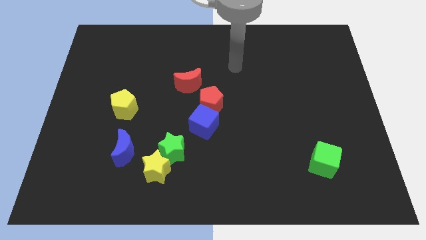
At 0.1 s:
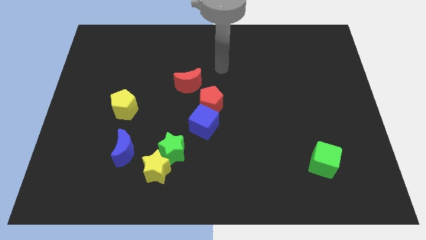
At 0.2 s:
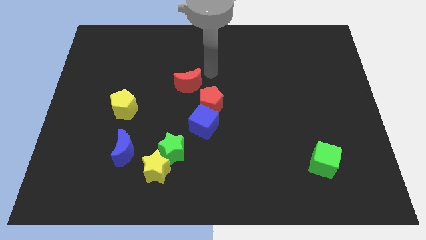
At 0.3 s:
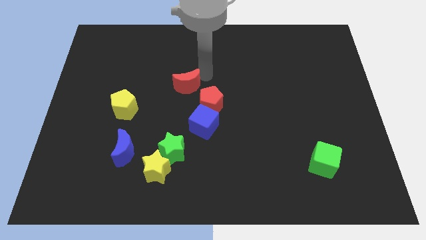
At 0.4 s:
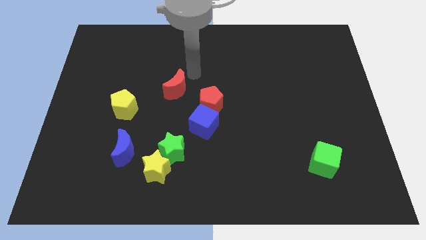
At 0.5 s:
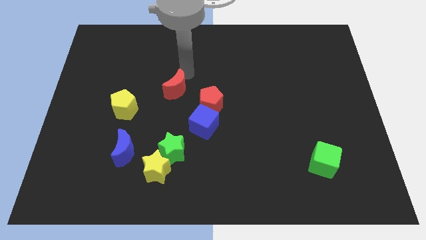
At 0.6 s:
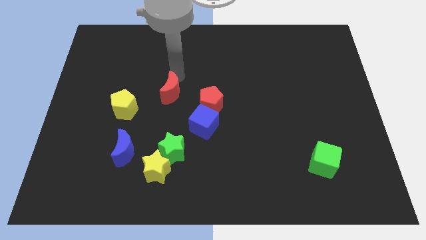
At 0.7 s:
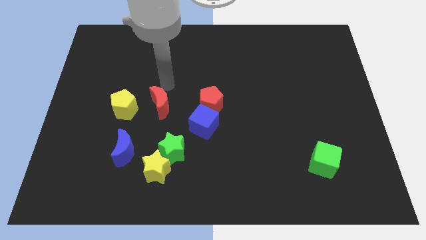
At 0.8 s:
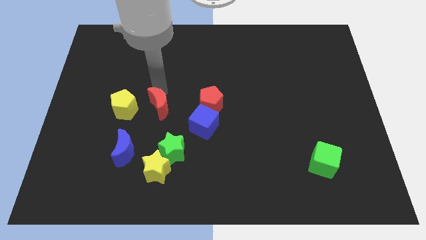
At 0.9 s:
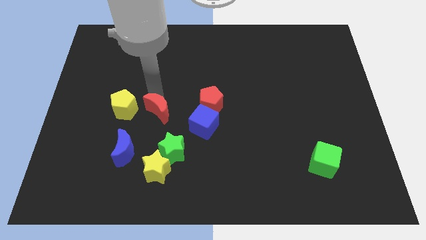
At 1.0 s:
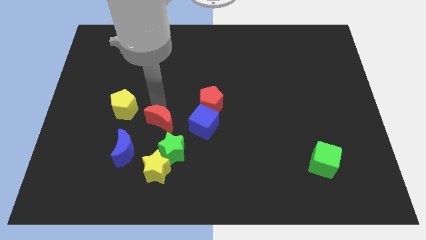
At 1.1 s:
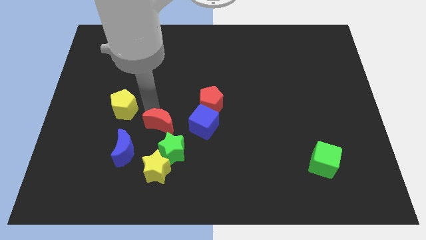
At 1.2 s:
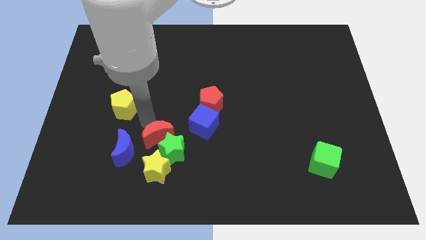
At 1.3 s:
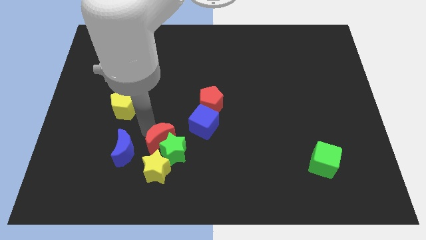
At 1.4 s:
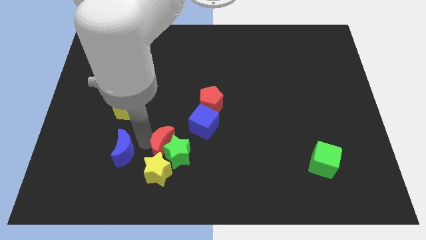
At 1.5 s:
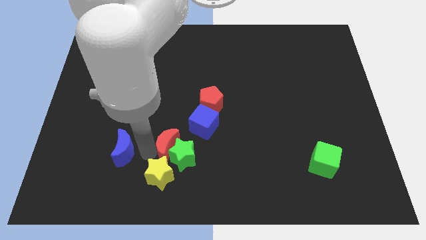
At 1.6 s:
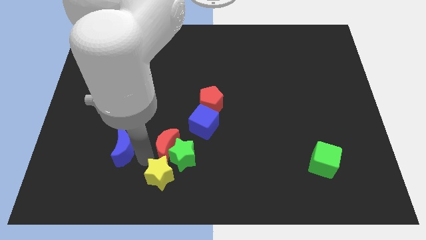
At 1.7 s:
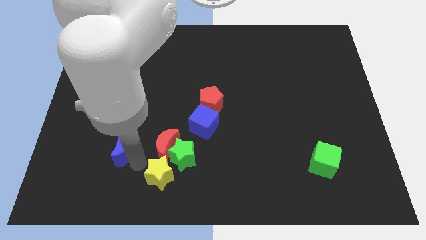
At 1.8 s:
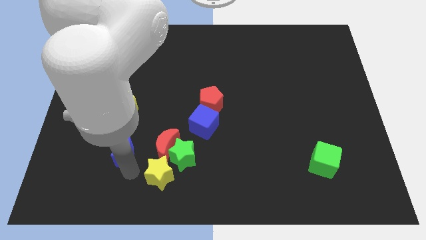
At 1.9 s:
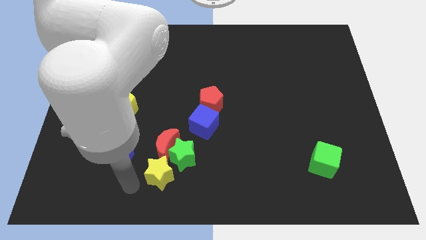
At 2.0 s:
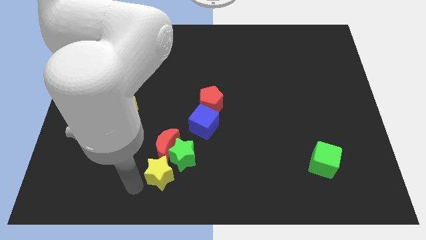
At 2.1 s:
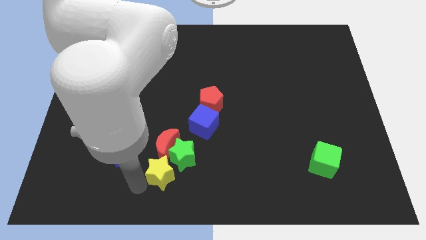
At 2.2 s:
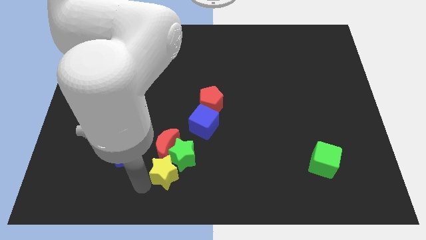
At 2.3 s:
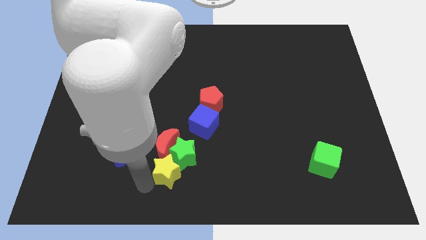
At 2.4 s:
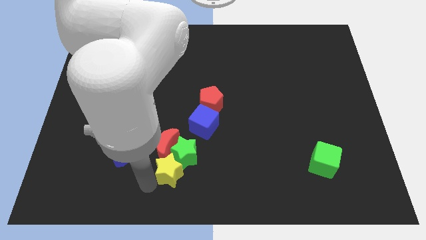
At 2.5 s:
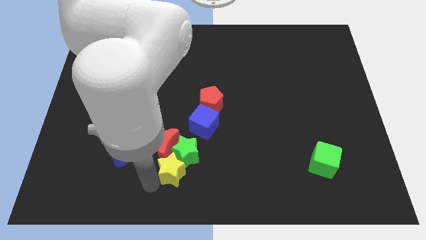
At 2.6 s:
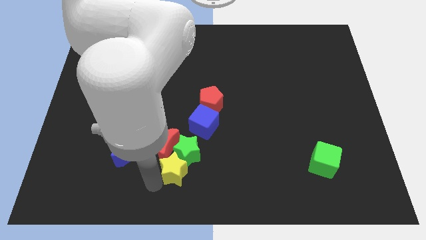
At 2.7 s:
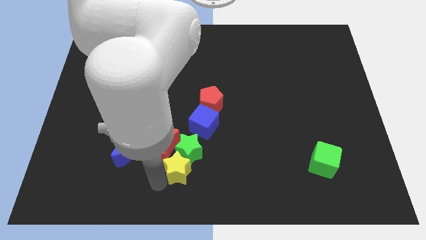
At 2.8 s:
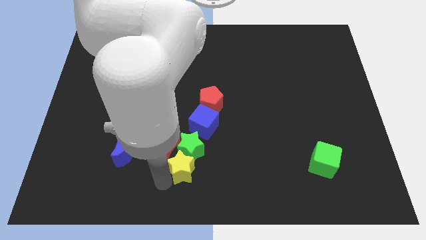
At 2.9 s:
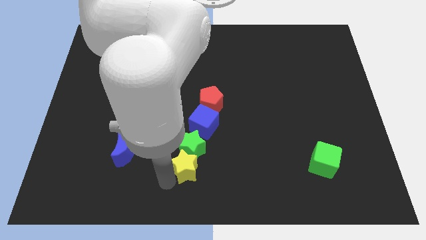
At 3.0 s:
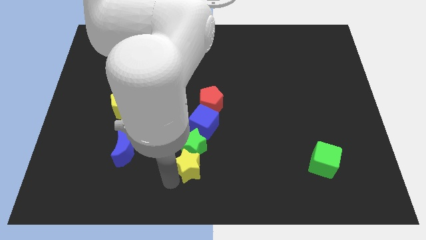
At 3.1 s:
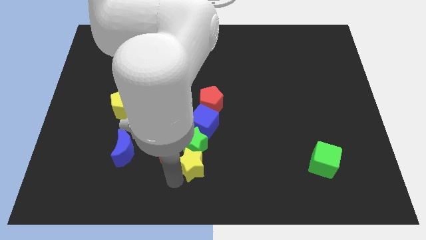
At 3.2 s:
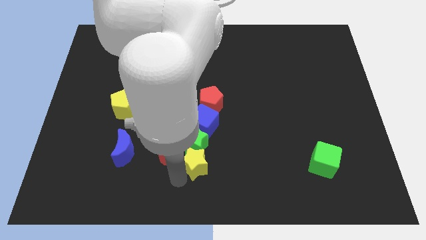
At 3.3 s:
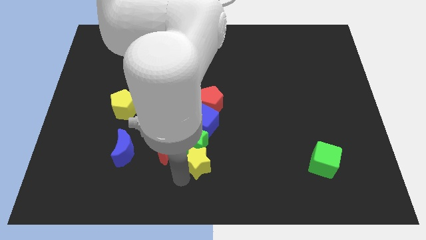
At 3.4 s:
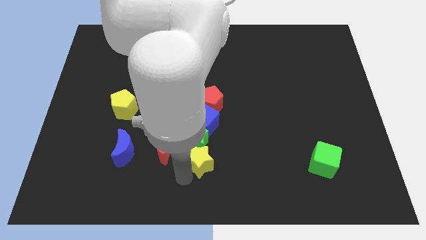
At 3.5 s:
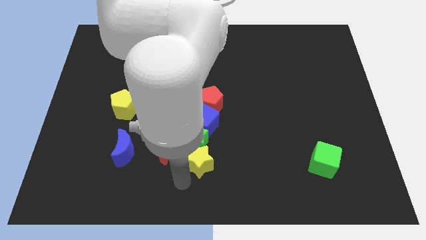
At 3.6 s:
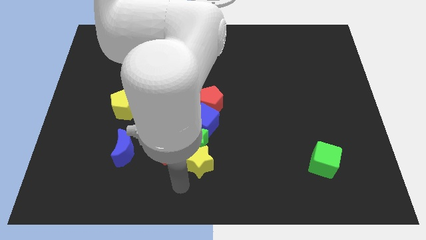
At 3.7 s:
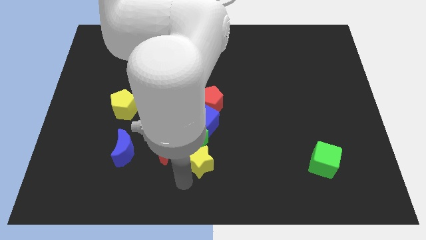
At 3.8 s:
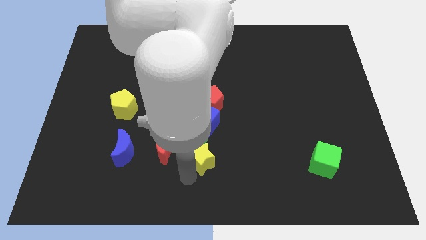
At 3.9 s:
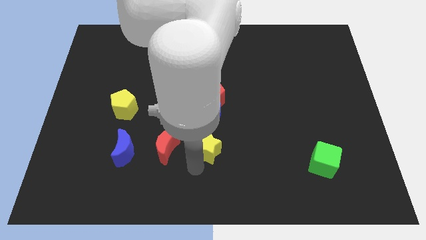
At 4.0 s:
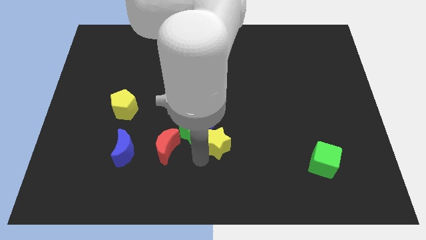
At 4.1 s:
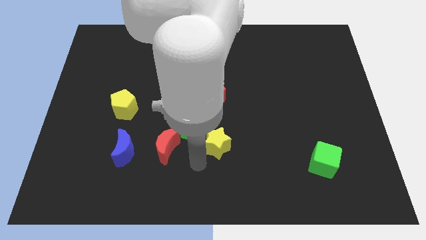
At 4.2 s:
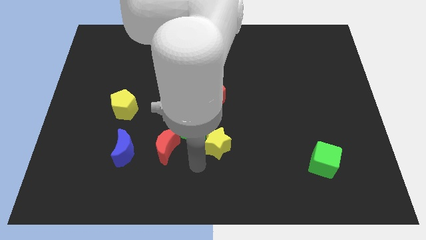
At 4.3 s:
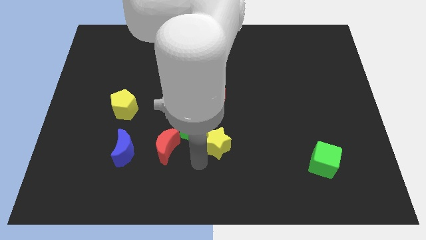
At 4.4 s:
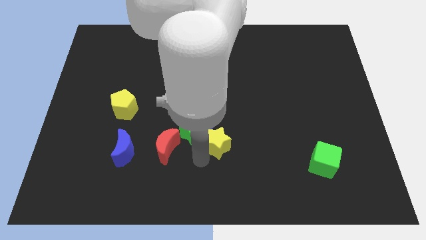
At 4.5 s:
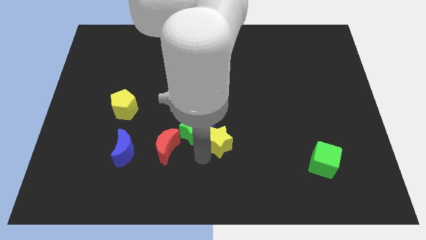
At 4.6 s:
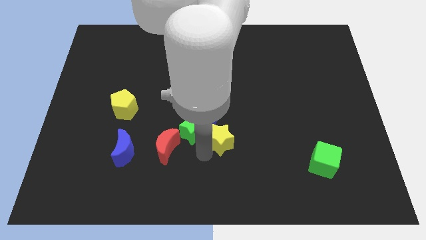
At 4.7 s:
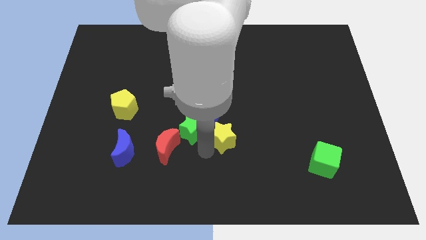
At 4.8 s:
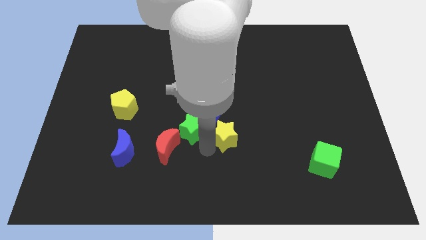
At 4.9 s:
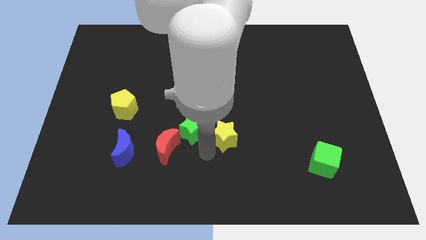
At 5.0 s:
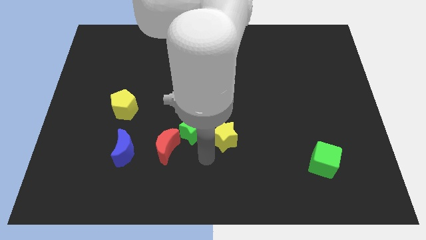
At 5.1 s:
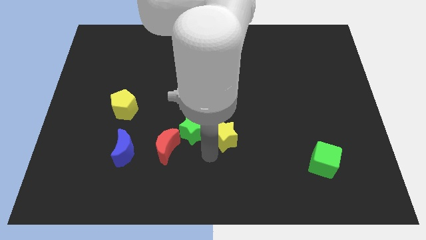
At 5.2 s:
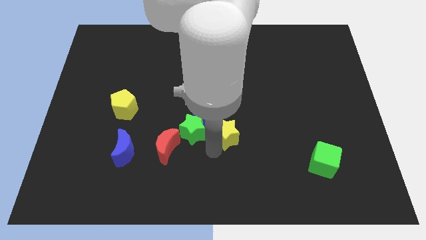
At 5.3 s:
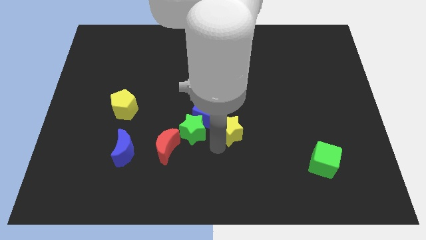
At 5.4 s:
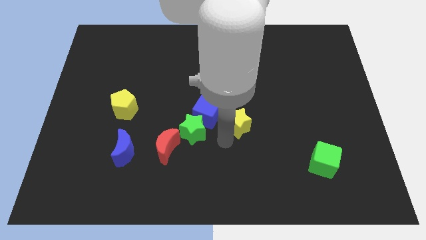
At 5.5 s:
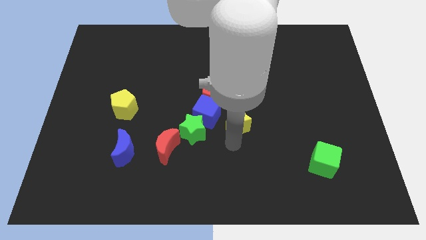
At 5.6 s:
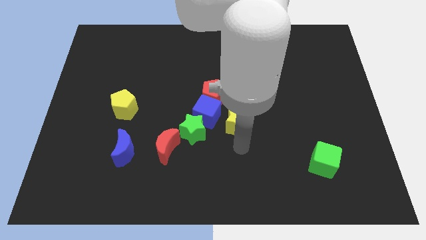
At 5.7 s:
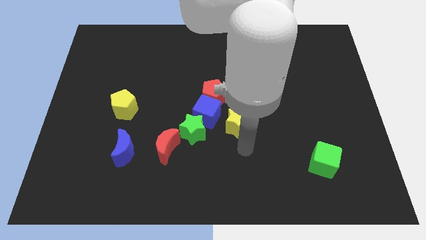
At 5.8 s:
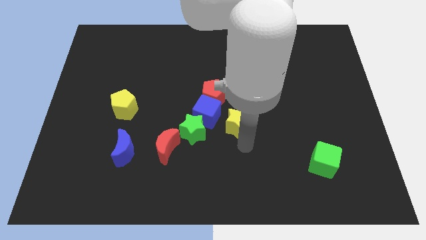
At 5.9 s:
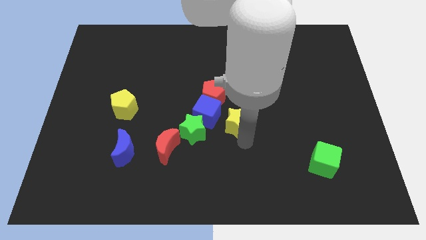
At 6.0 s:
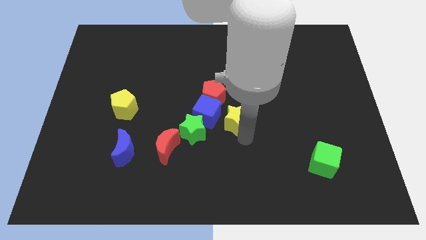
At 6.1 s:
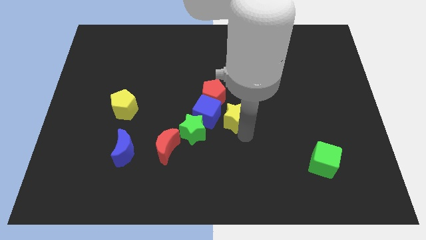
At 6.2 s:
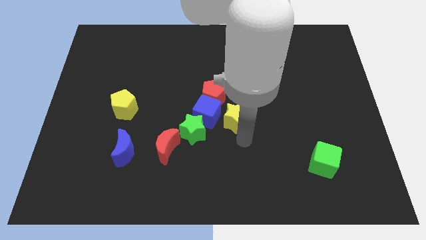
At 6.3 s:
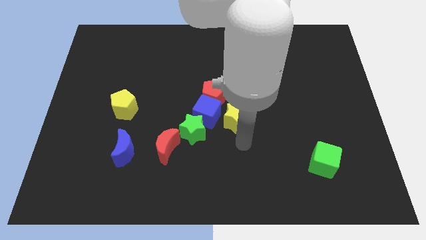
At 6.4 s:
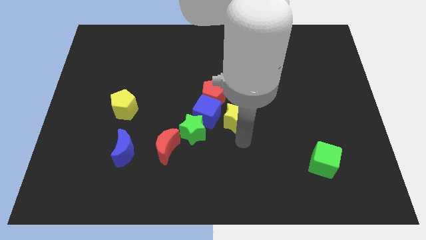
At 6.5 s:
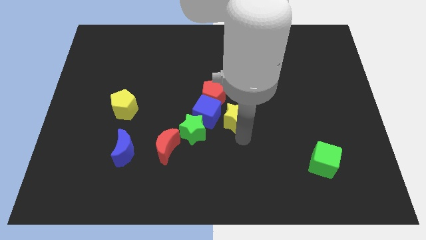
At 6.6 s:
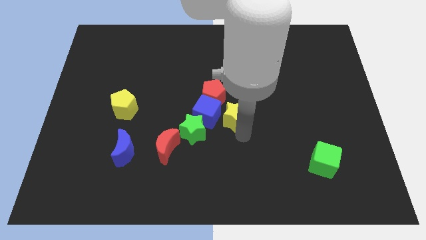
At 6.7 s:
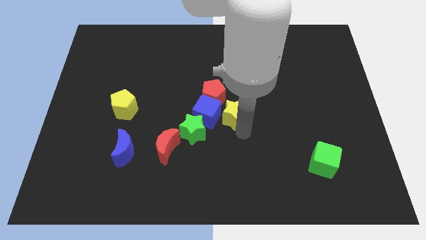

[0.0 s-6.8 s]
put the yellow star to the top right of the blue cube

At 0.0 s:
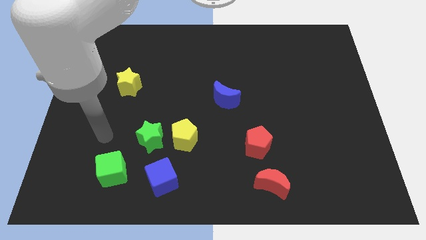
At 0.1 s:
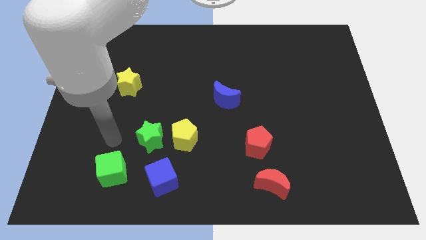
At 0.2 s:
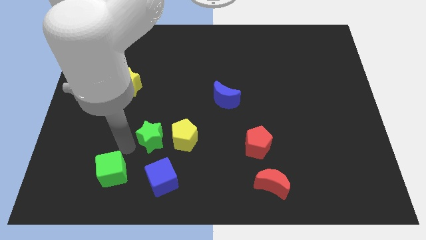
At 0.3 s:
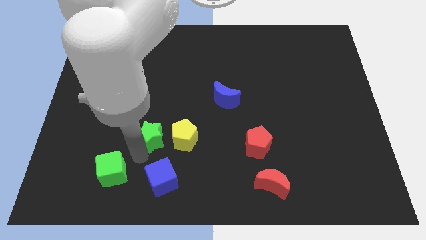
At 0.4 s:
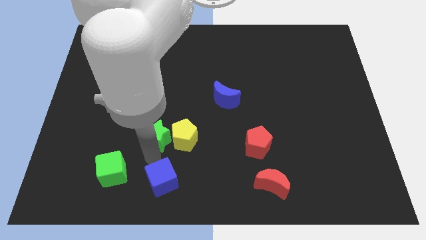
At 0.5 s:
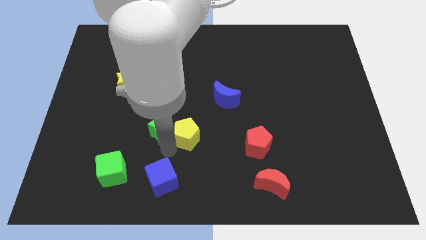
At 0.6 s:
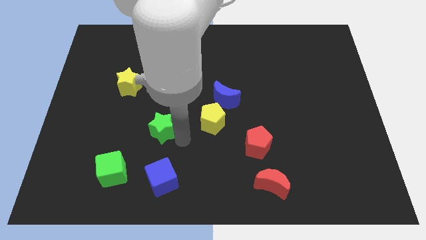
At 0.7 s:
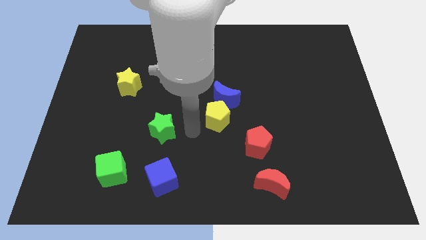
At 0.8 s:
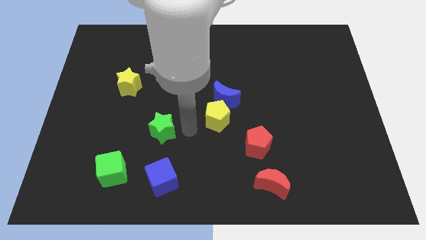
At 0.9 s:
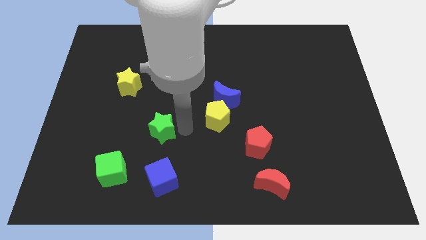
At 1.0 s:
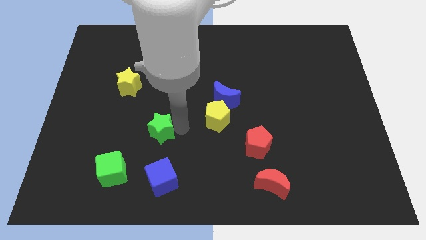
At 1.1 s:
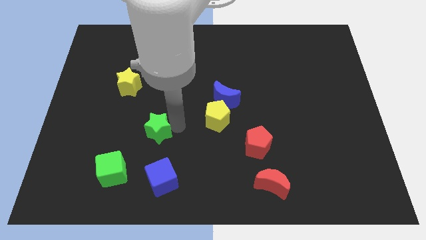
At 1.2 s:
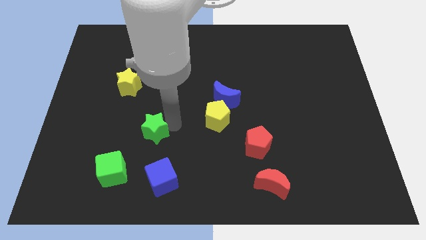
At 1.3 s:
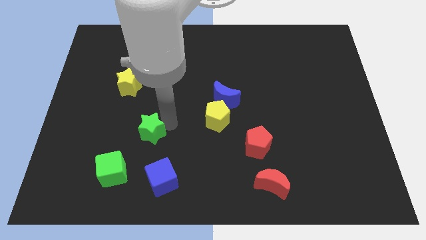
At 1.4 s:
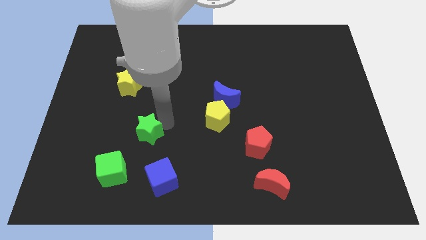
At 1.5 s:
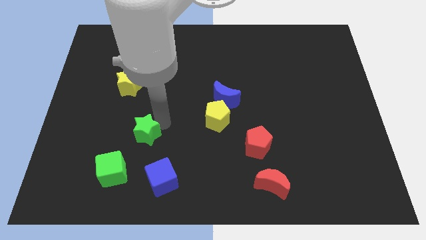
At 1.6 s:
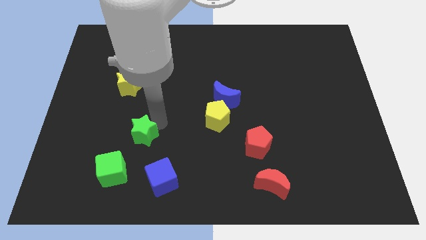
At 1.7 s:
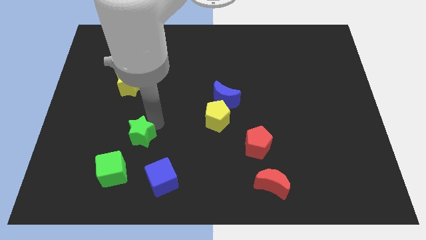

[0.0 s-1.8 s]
slide the green star to the top of the green cube
